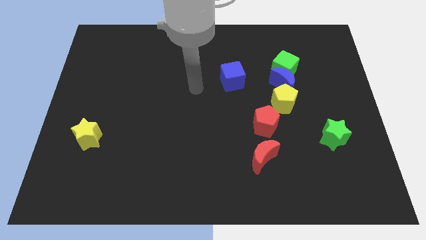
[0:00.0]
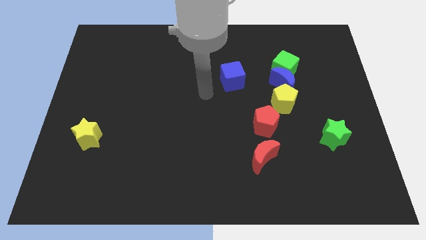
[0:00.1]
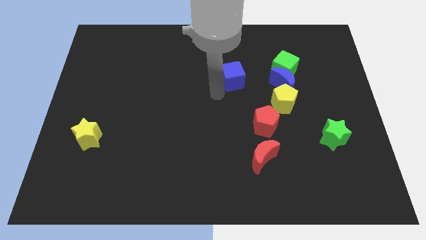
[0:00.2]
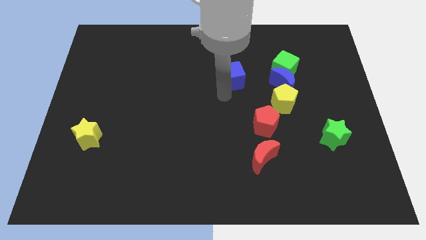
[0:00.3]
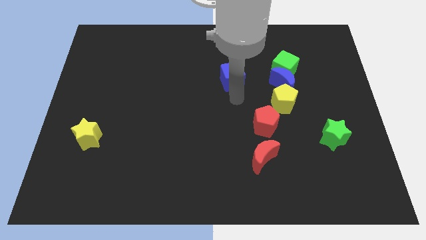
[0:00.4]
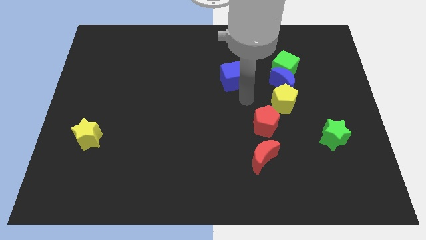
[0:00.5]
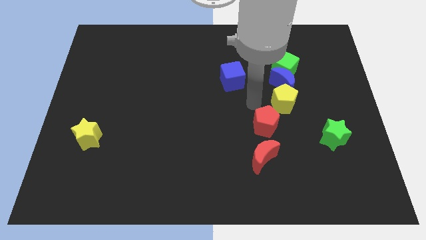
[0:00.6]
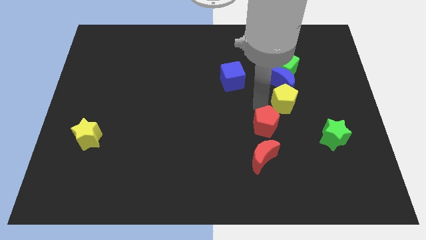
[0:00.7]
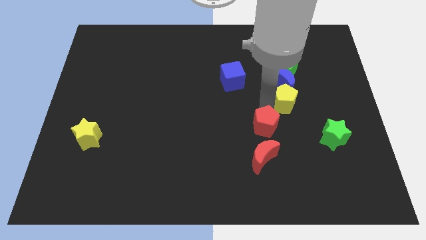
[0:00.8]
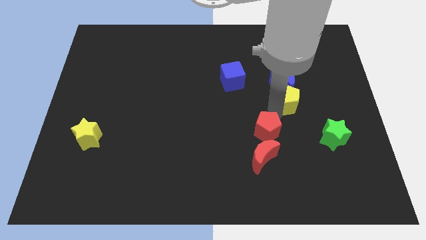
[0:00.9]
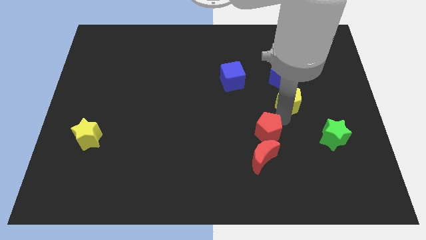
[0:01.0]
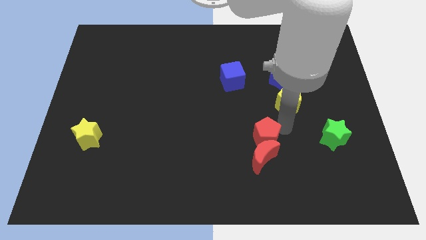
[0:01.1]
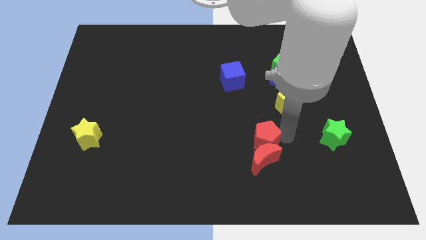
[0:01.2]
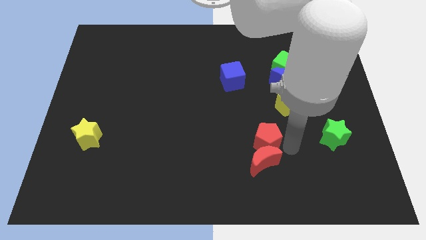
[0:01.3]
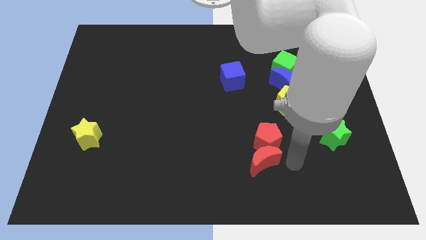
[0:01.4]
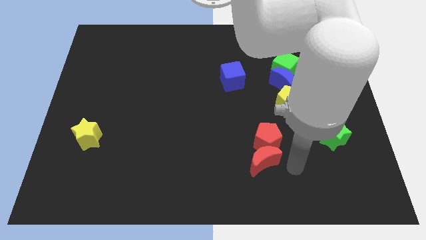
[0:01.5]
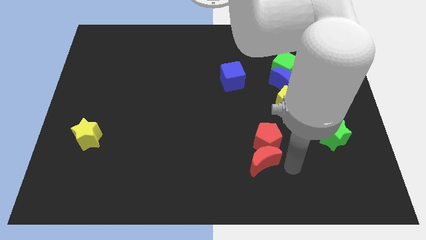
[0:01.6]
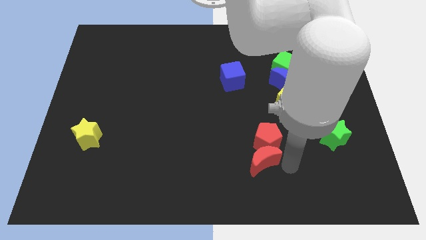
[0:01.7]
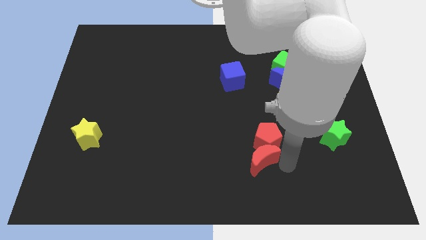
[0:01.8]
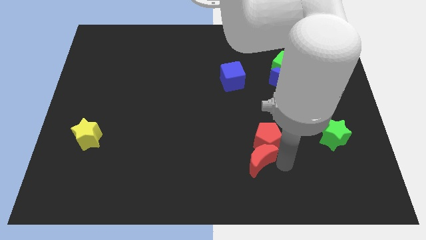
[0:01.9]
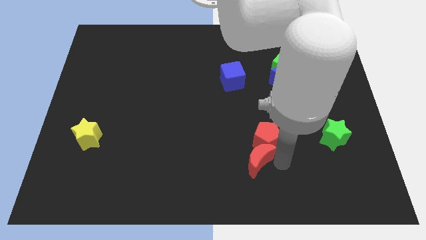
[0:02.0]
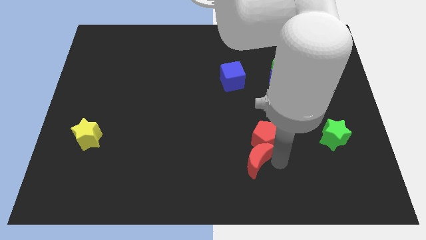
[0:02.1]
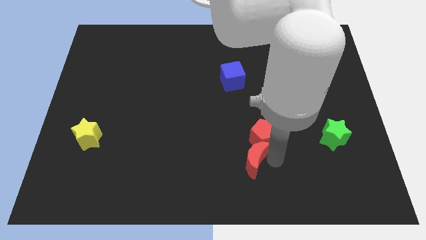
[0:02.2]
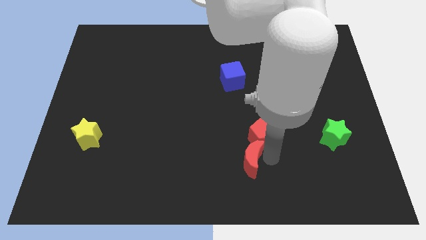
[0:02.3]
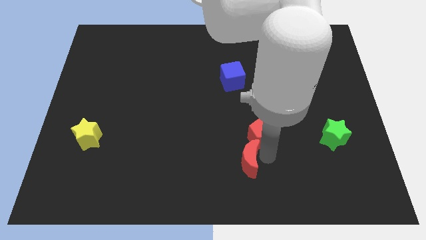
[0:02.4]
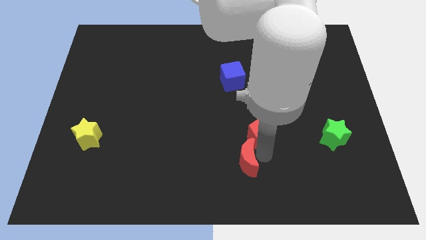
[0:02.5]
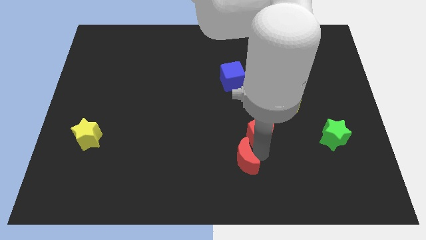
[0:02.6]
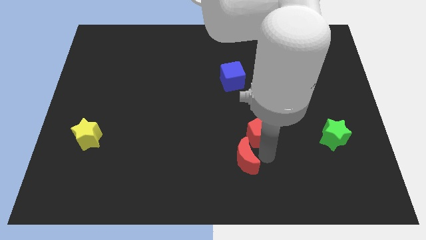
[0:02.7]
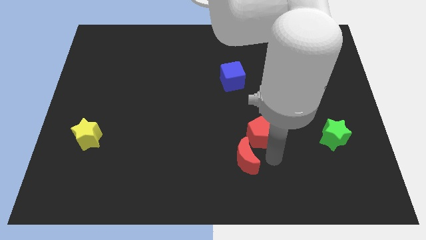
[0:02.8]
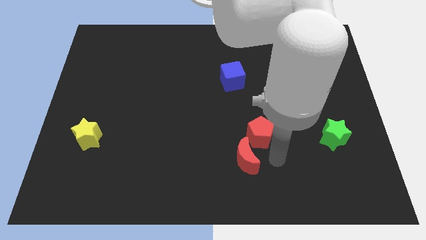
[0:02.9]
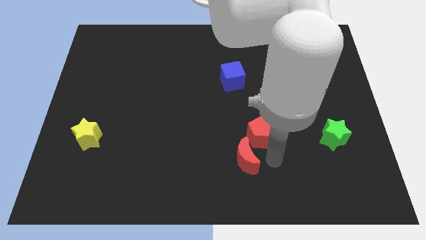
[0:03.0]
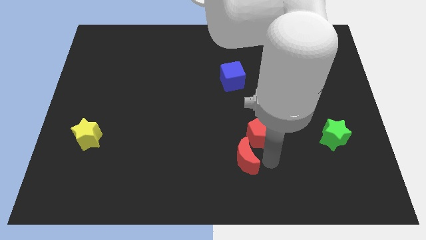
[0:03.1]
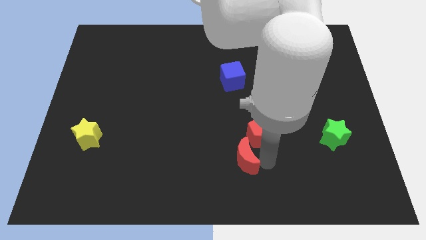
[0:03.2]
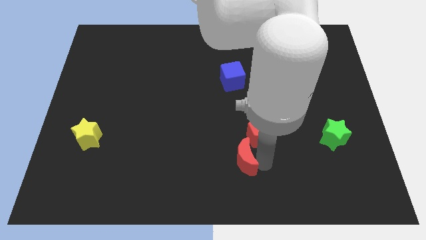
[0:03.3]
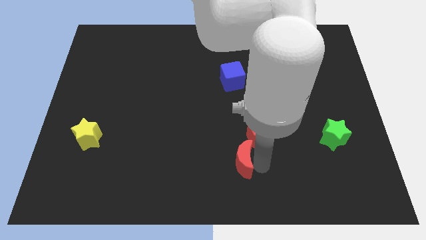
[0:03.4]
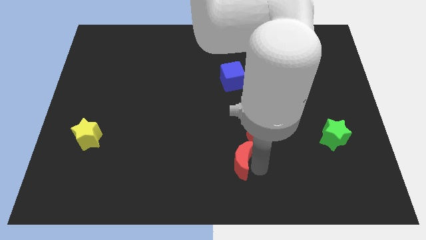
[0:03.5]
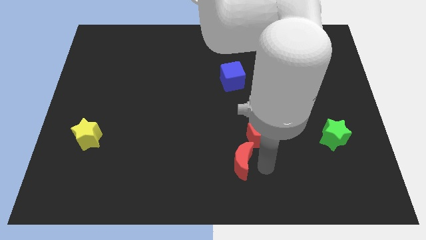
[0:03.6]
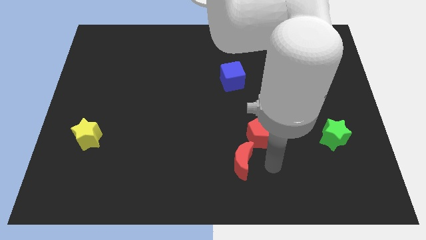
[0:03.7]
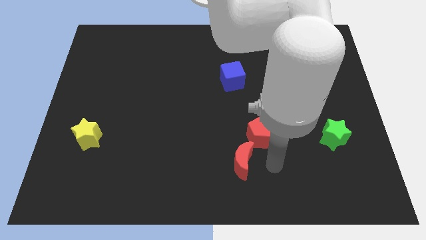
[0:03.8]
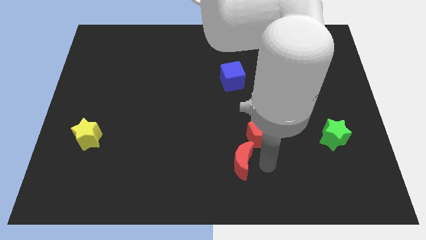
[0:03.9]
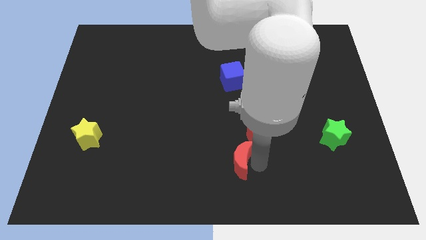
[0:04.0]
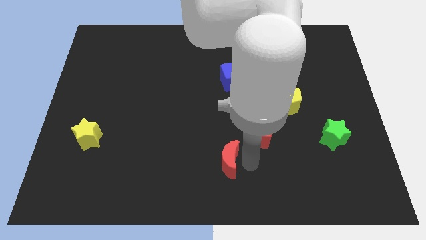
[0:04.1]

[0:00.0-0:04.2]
slightly move the red moon to the left

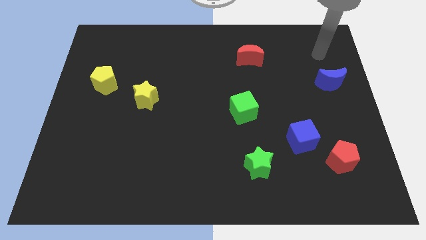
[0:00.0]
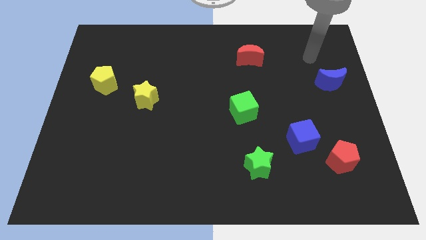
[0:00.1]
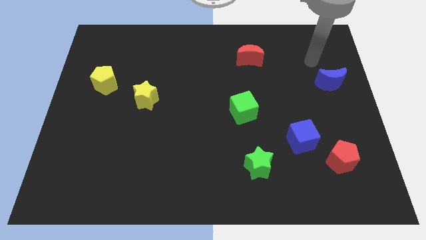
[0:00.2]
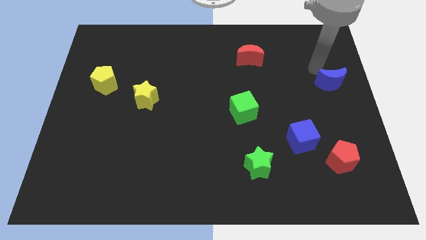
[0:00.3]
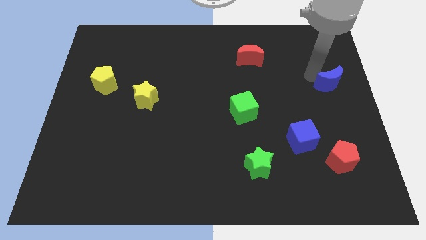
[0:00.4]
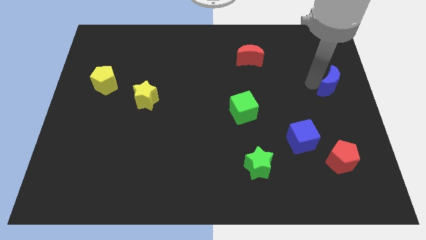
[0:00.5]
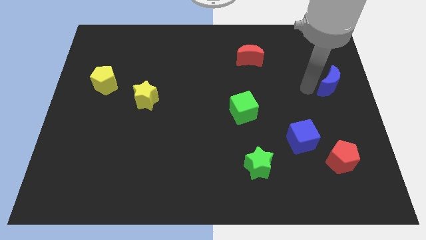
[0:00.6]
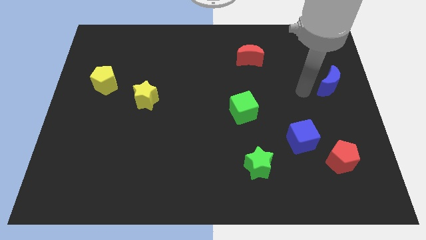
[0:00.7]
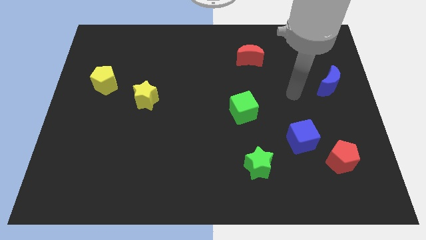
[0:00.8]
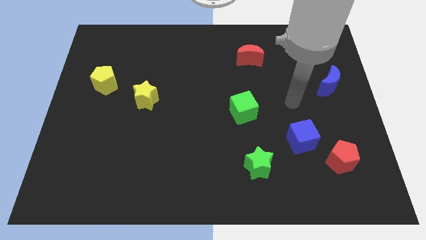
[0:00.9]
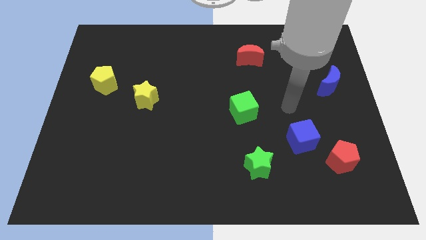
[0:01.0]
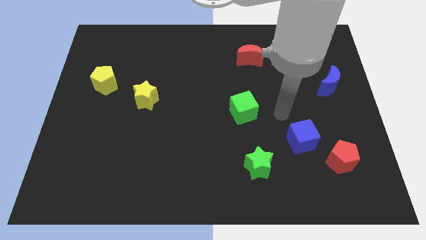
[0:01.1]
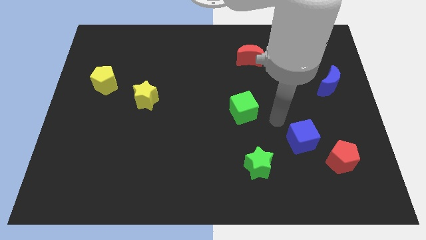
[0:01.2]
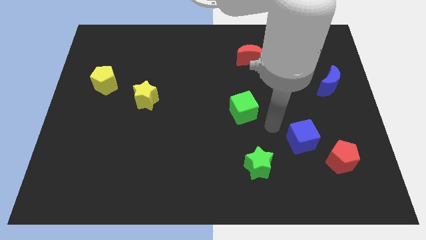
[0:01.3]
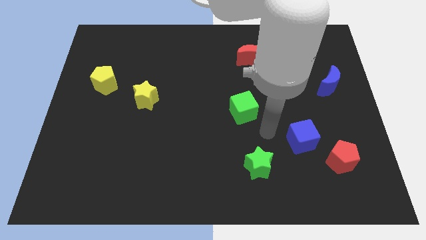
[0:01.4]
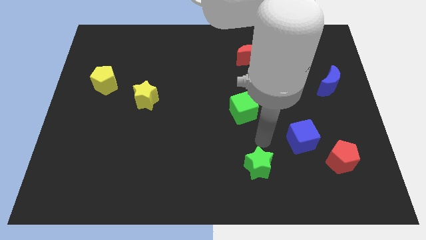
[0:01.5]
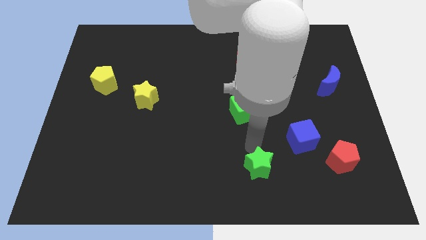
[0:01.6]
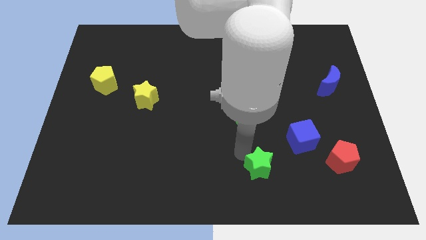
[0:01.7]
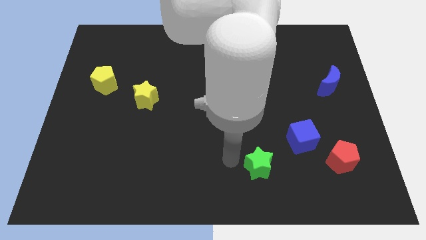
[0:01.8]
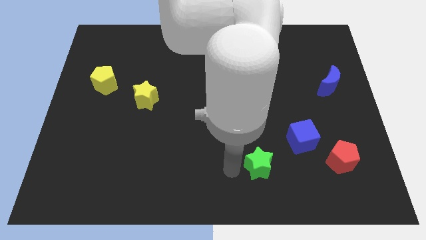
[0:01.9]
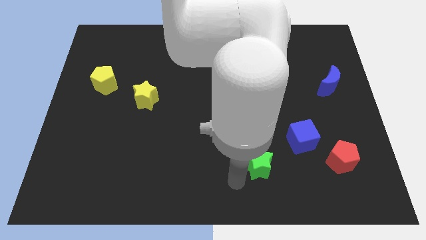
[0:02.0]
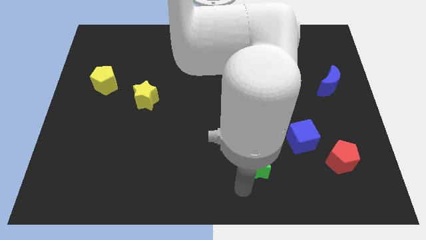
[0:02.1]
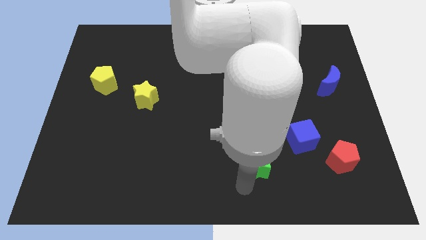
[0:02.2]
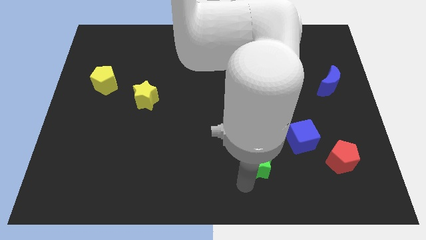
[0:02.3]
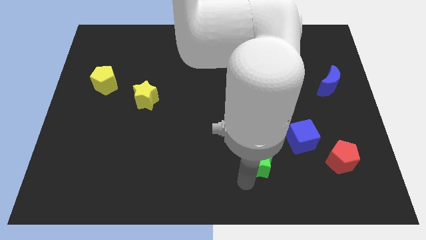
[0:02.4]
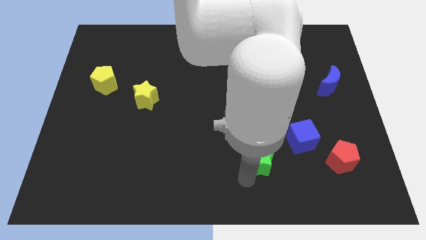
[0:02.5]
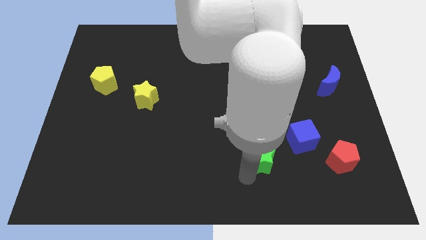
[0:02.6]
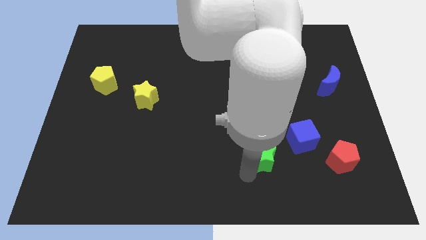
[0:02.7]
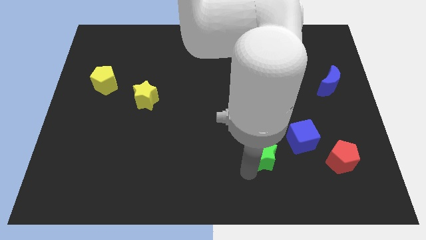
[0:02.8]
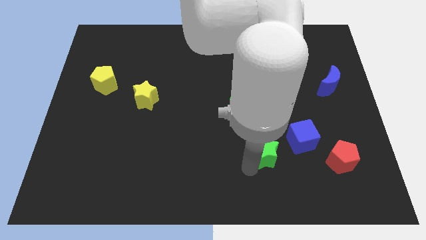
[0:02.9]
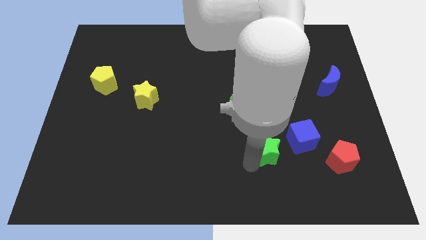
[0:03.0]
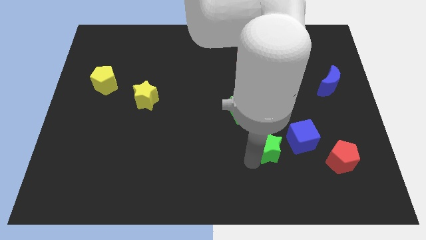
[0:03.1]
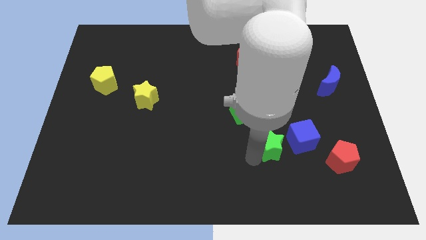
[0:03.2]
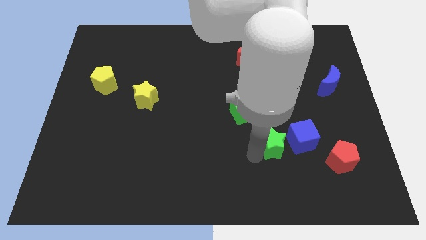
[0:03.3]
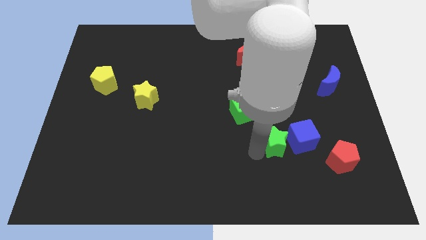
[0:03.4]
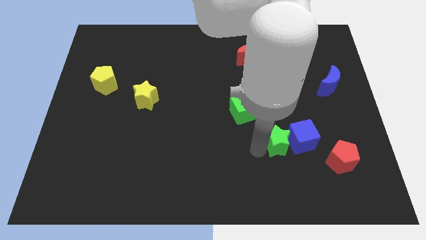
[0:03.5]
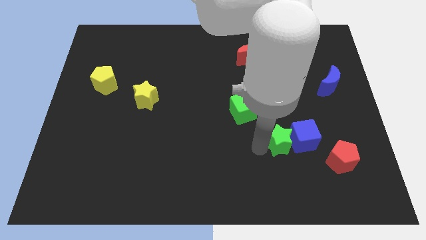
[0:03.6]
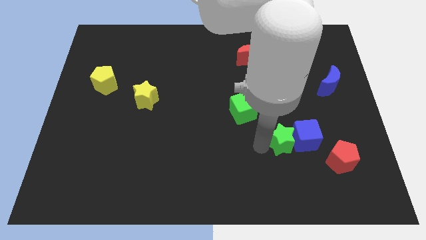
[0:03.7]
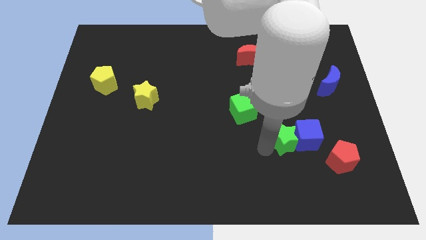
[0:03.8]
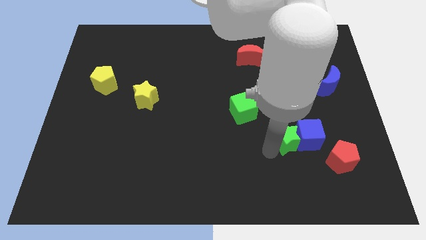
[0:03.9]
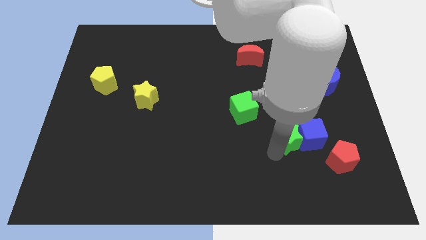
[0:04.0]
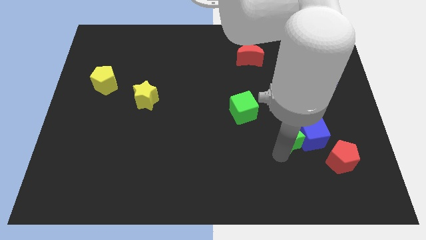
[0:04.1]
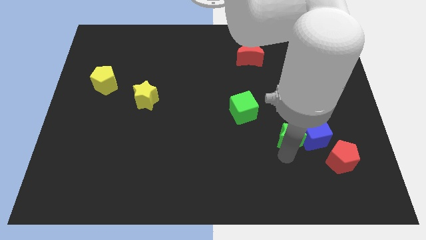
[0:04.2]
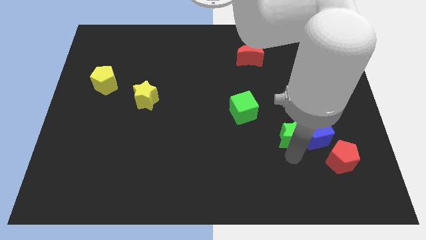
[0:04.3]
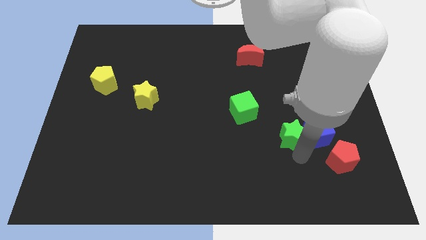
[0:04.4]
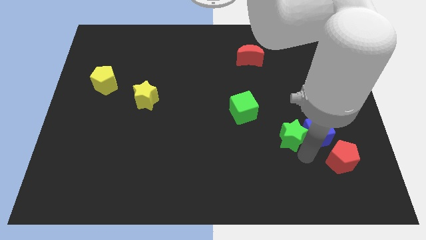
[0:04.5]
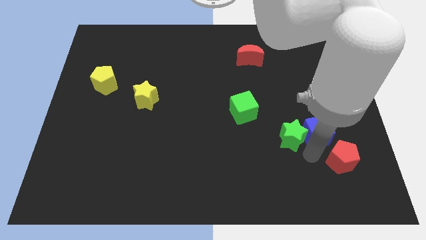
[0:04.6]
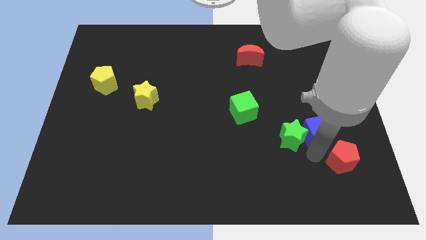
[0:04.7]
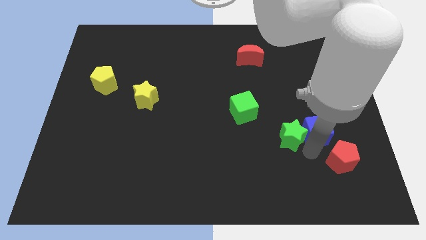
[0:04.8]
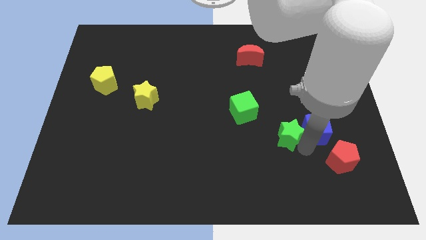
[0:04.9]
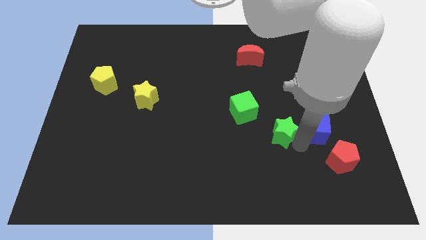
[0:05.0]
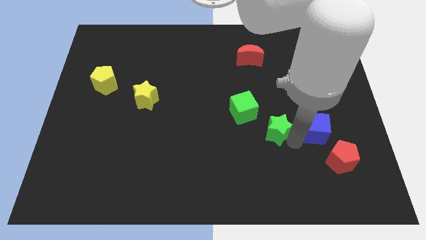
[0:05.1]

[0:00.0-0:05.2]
move the green star a little bit upwards
